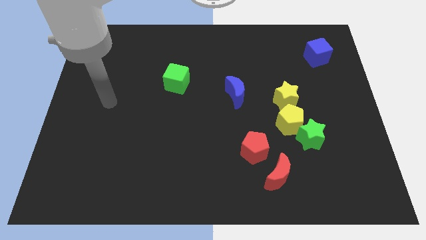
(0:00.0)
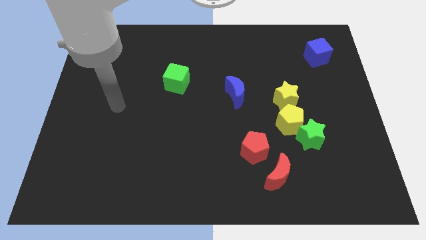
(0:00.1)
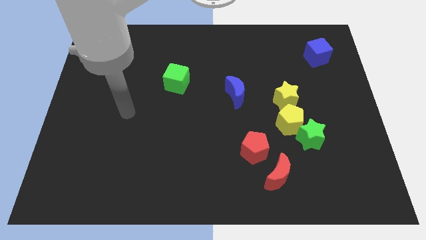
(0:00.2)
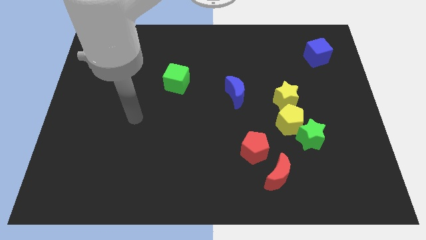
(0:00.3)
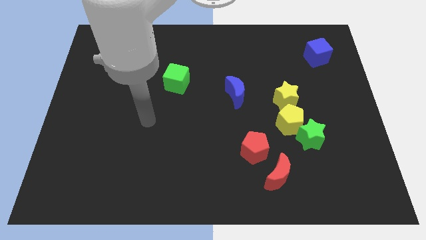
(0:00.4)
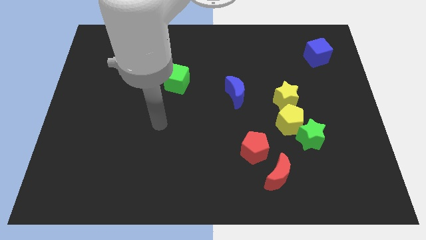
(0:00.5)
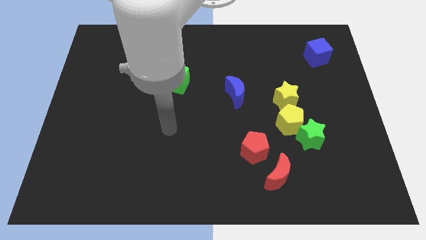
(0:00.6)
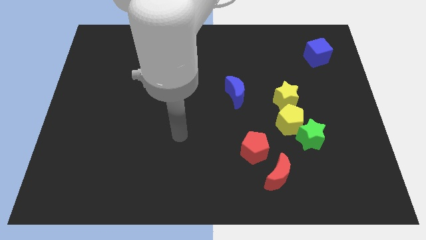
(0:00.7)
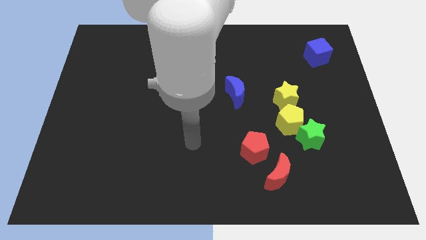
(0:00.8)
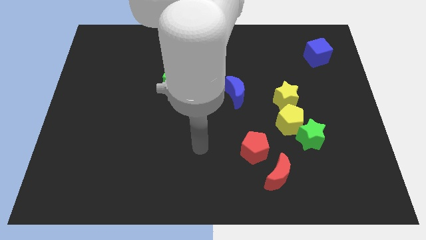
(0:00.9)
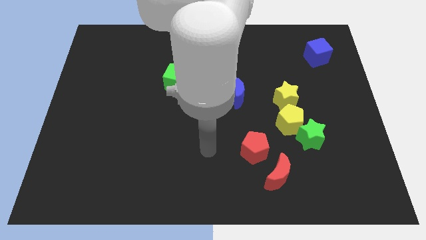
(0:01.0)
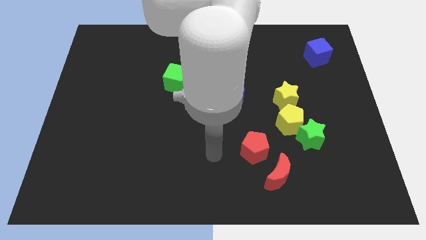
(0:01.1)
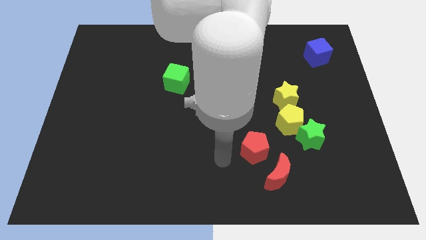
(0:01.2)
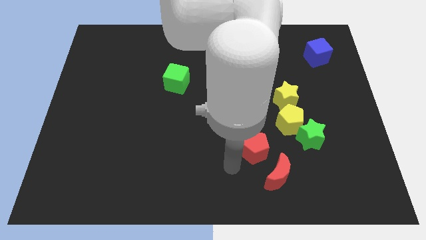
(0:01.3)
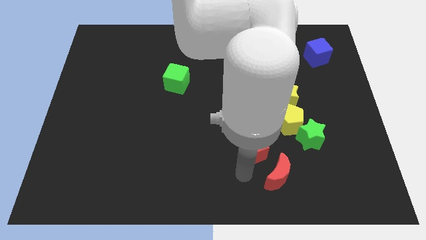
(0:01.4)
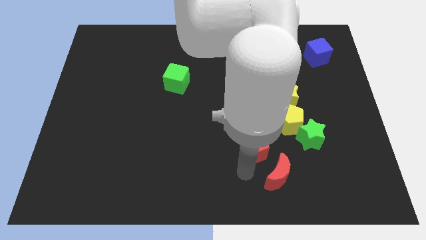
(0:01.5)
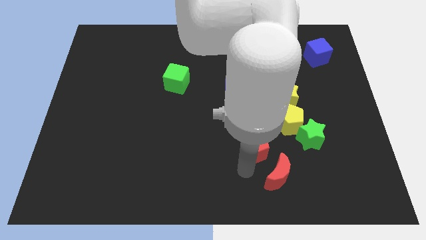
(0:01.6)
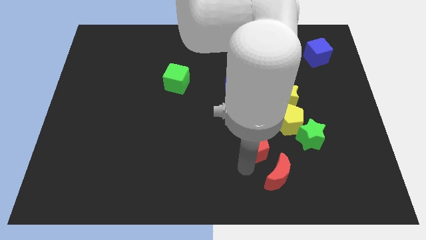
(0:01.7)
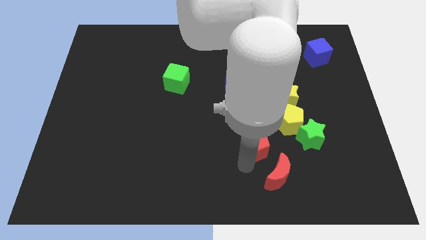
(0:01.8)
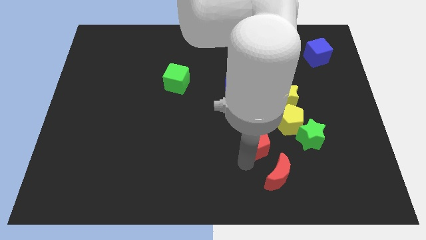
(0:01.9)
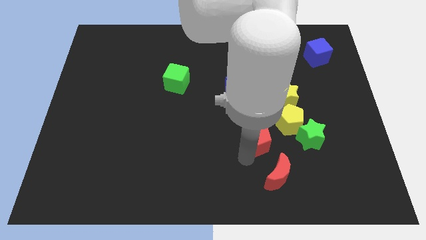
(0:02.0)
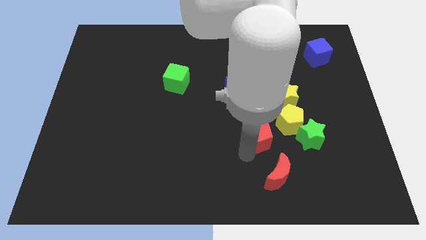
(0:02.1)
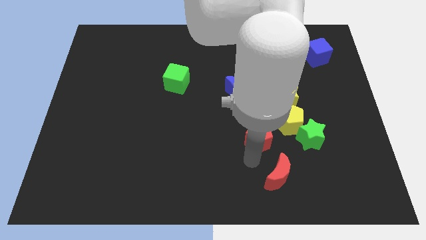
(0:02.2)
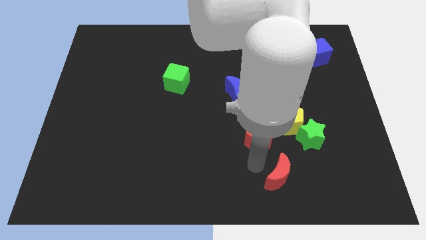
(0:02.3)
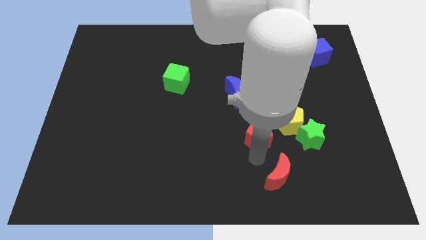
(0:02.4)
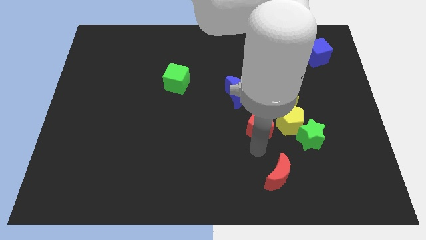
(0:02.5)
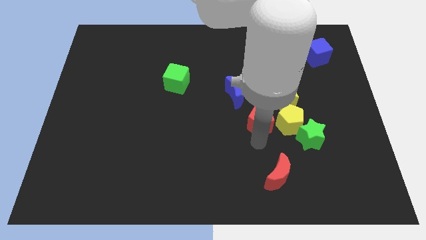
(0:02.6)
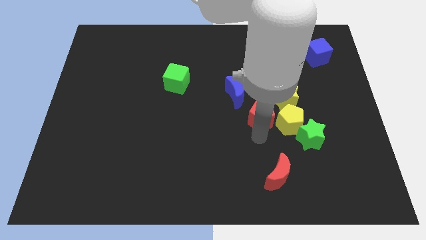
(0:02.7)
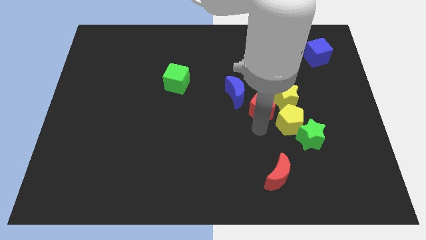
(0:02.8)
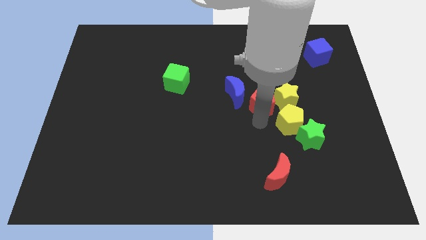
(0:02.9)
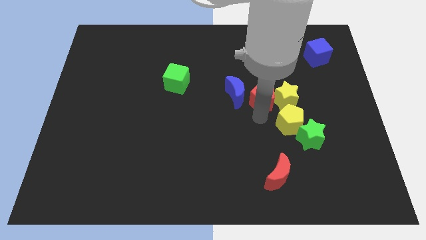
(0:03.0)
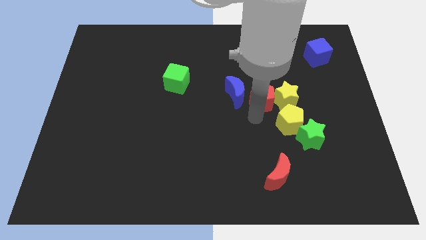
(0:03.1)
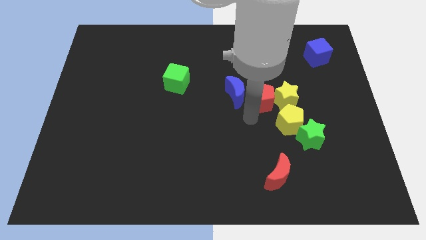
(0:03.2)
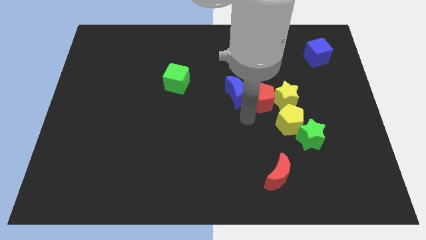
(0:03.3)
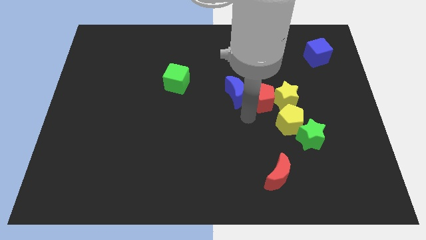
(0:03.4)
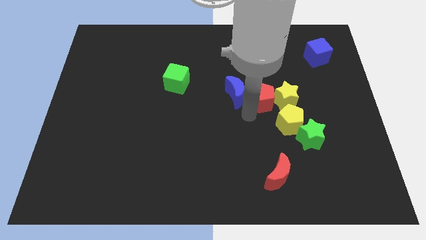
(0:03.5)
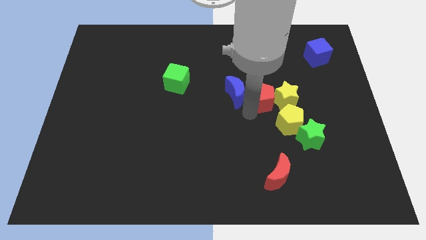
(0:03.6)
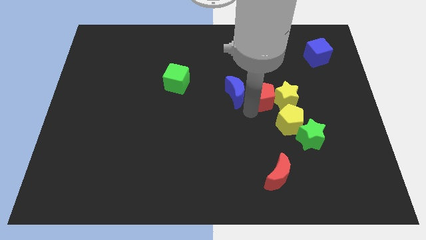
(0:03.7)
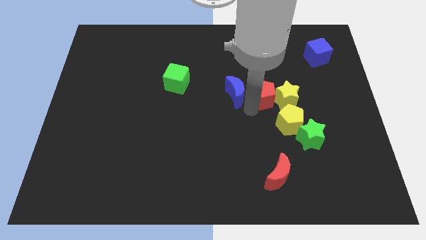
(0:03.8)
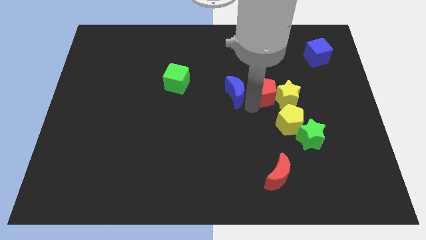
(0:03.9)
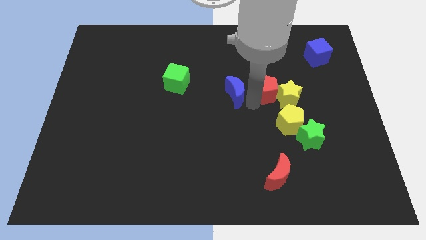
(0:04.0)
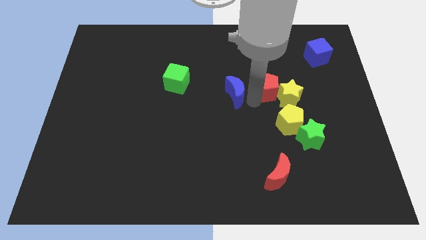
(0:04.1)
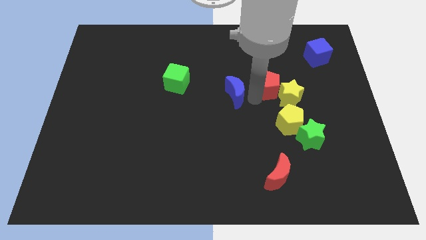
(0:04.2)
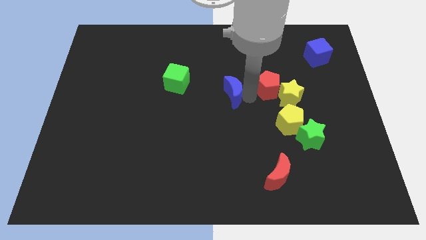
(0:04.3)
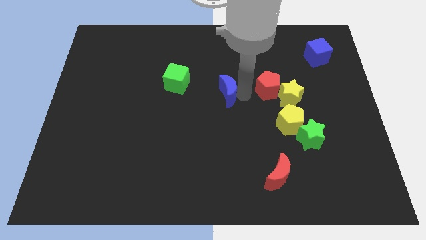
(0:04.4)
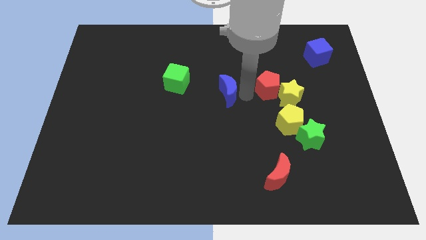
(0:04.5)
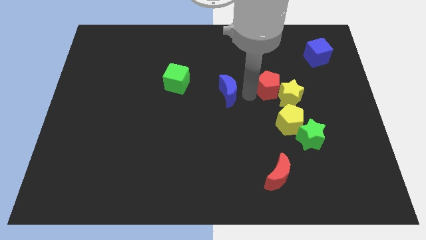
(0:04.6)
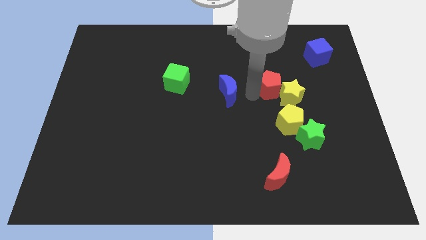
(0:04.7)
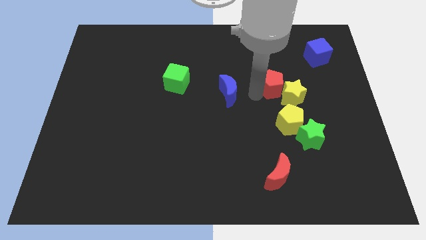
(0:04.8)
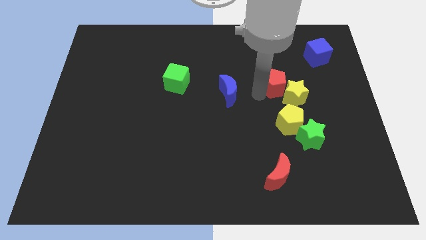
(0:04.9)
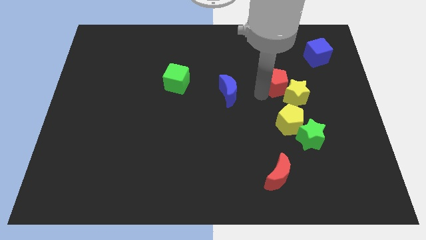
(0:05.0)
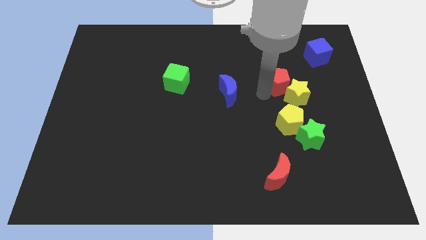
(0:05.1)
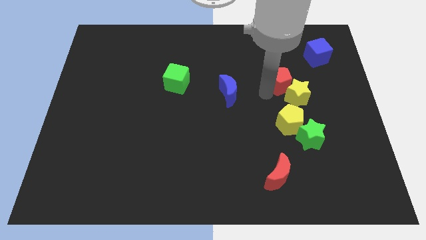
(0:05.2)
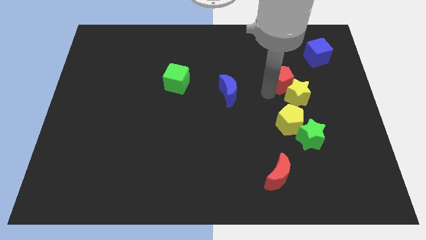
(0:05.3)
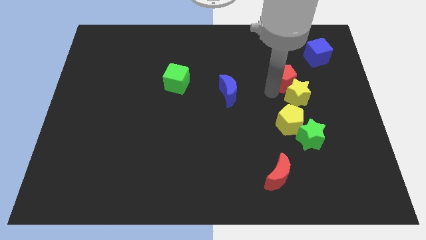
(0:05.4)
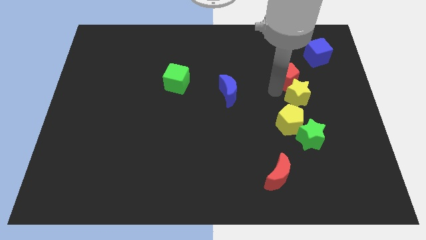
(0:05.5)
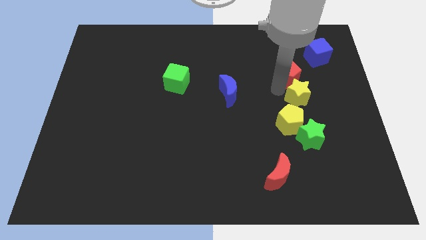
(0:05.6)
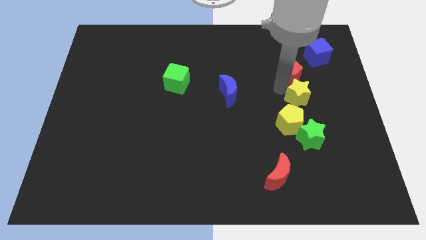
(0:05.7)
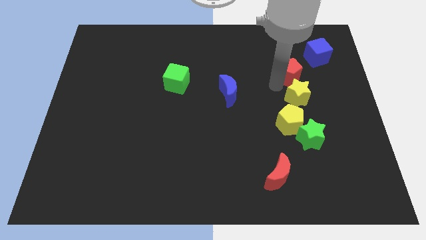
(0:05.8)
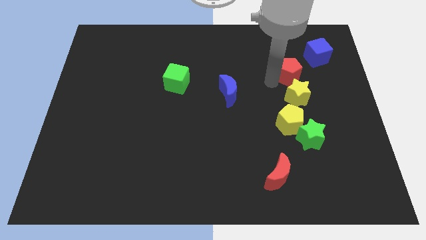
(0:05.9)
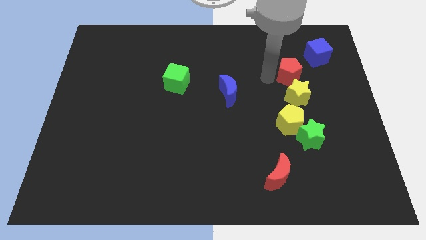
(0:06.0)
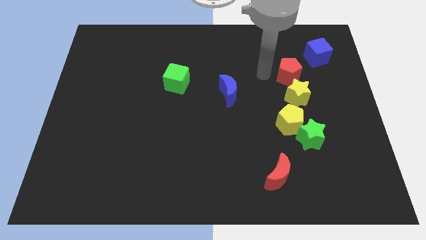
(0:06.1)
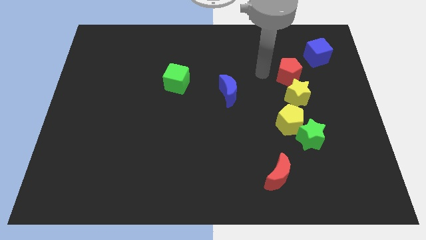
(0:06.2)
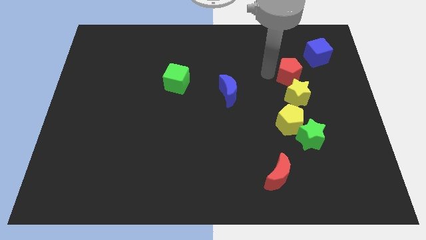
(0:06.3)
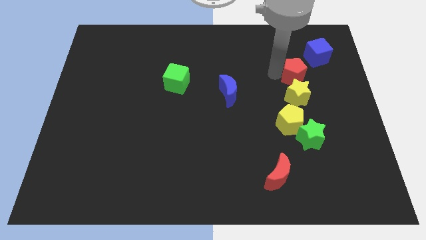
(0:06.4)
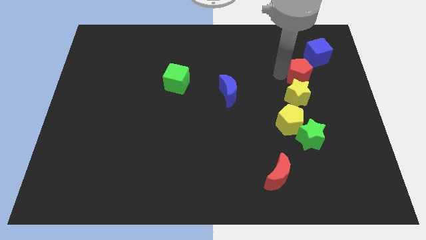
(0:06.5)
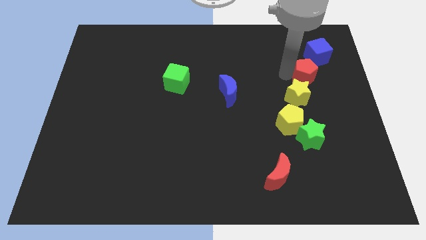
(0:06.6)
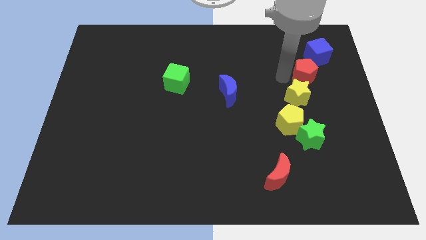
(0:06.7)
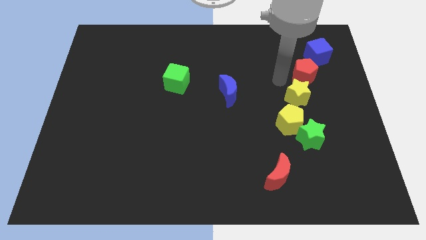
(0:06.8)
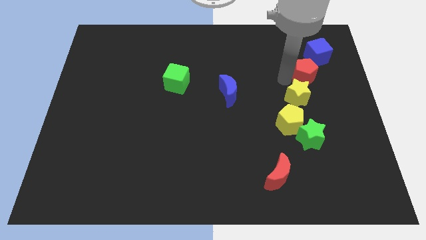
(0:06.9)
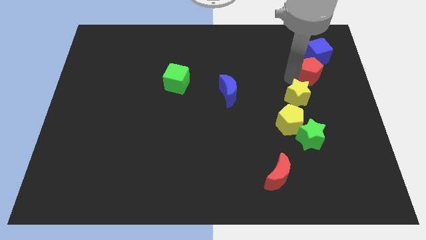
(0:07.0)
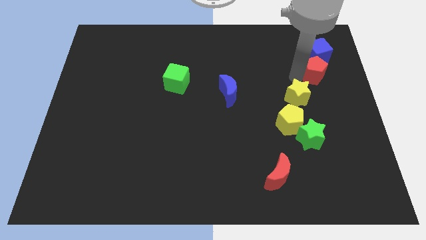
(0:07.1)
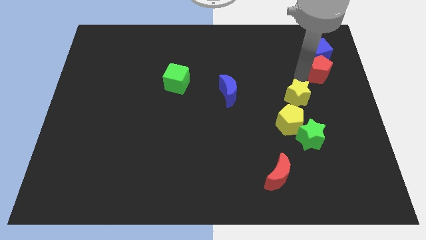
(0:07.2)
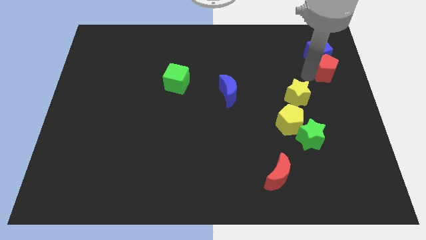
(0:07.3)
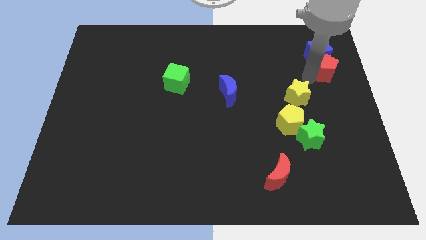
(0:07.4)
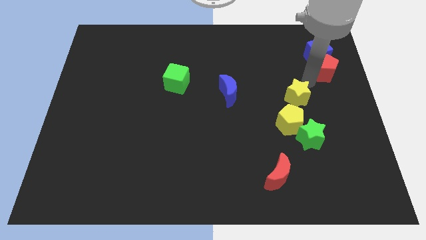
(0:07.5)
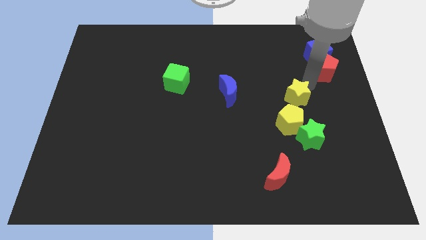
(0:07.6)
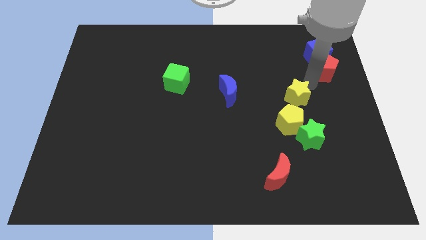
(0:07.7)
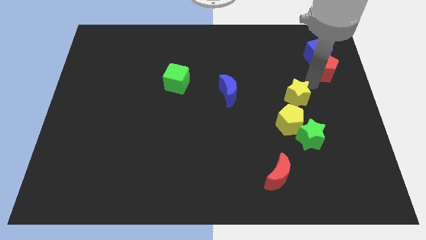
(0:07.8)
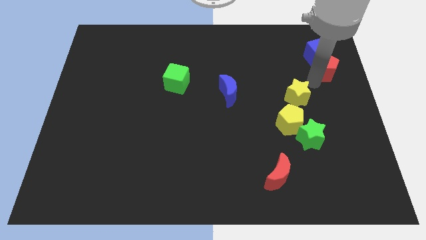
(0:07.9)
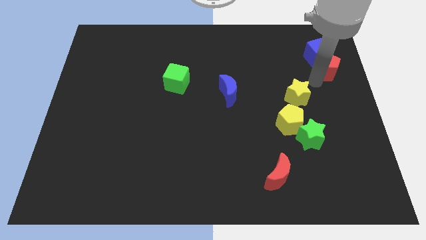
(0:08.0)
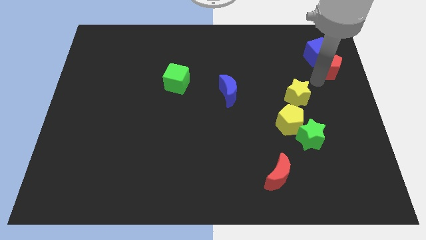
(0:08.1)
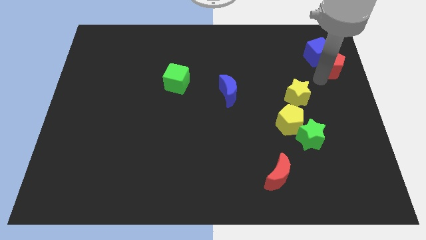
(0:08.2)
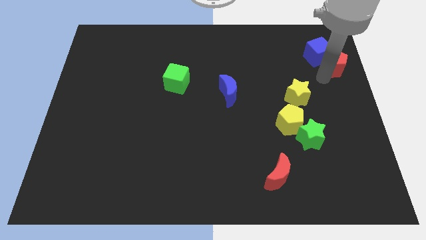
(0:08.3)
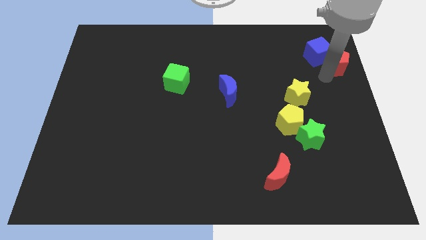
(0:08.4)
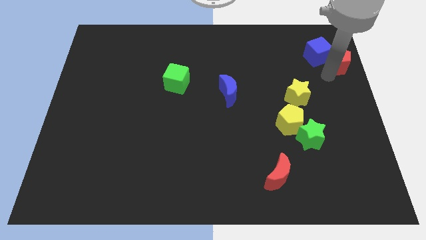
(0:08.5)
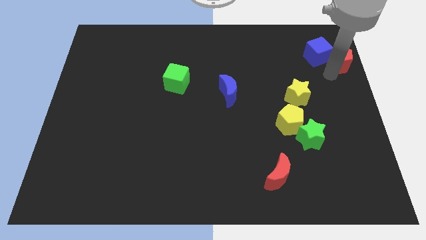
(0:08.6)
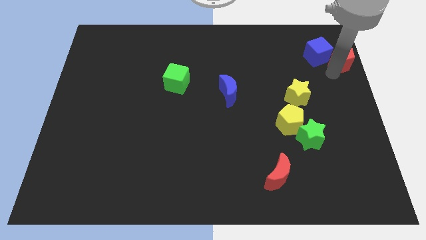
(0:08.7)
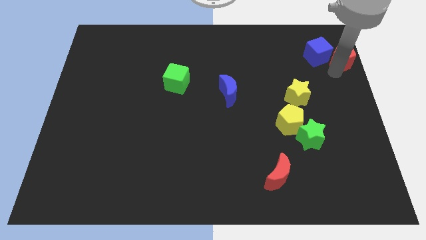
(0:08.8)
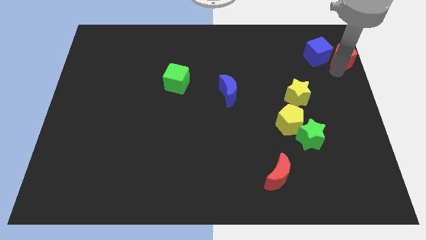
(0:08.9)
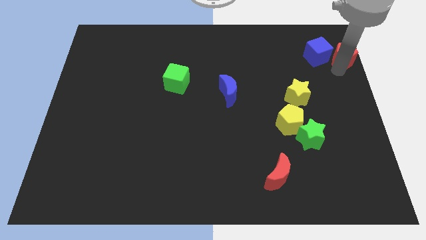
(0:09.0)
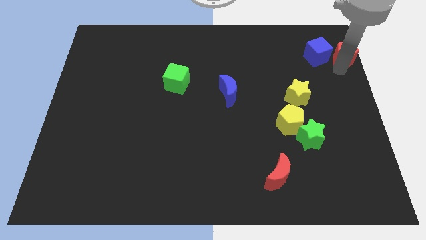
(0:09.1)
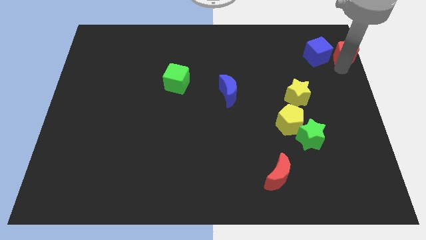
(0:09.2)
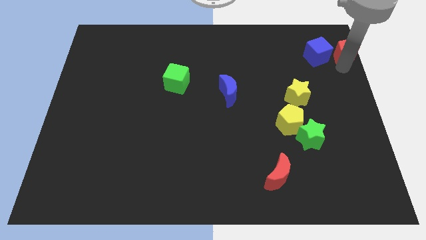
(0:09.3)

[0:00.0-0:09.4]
put the red pentagon to the upper right corner
